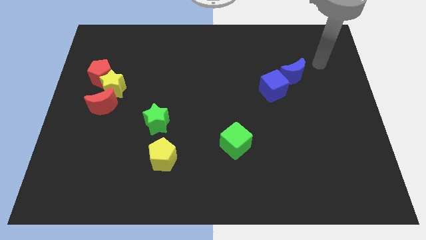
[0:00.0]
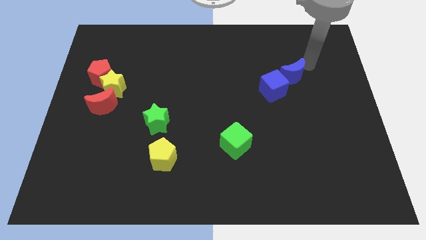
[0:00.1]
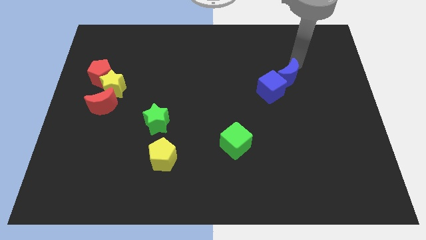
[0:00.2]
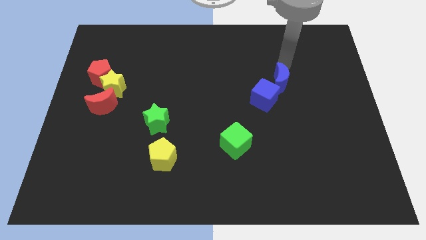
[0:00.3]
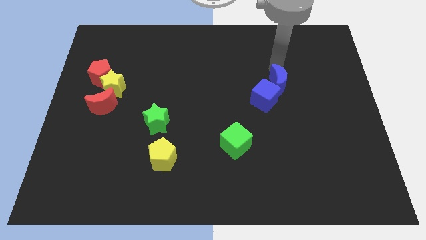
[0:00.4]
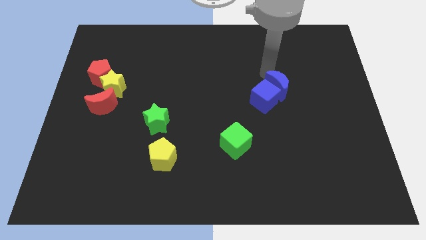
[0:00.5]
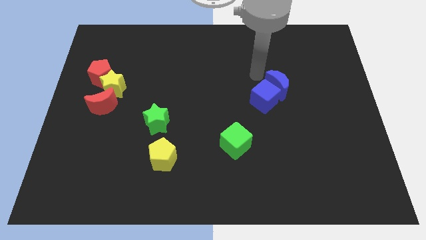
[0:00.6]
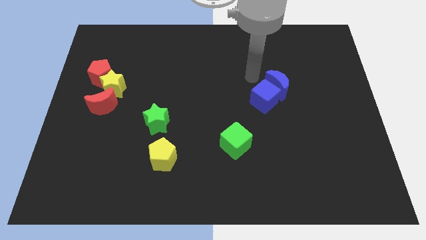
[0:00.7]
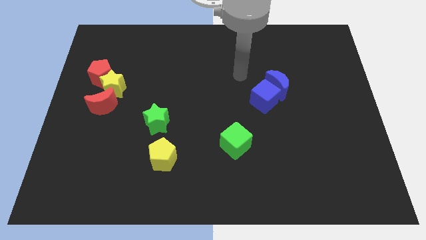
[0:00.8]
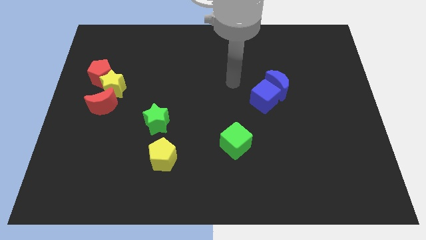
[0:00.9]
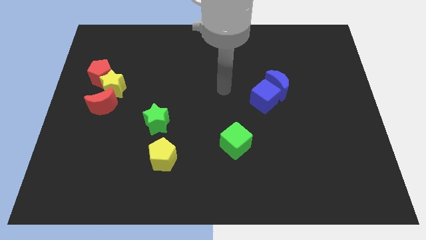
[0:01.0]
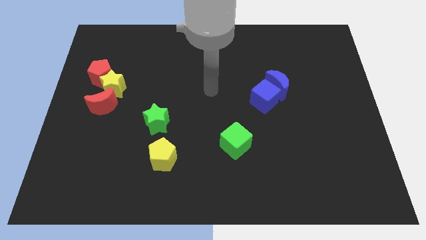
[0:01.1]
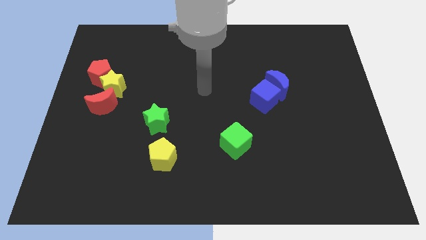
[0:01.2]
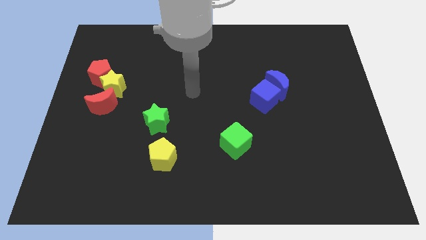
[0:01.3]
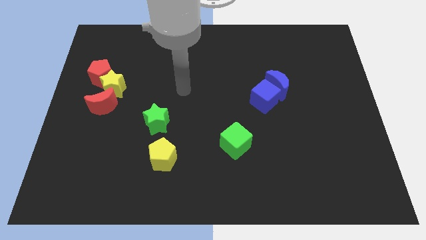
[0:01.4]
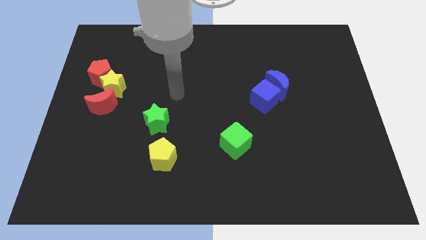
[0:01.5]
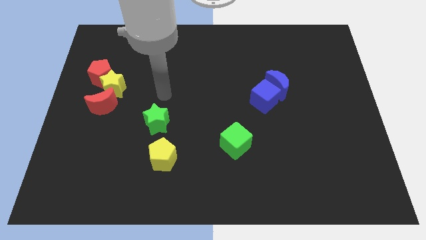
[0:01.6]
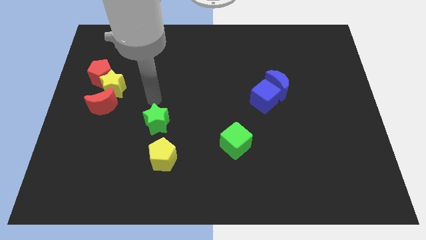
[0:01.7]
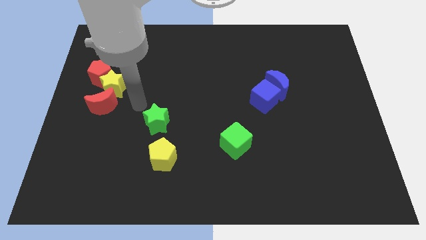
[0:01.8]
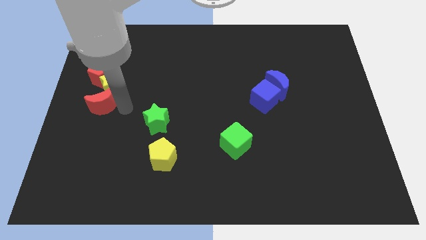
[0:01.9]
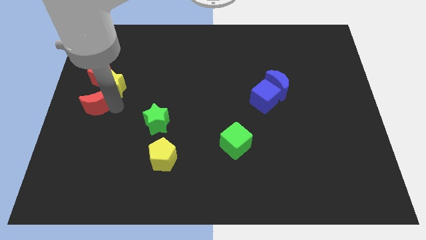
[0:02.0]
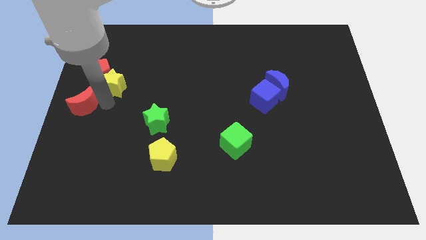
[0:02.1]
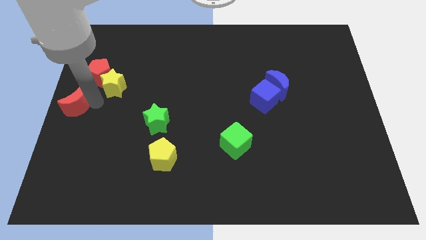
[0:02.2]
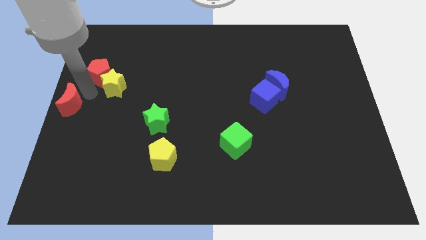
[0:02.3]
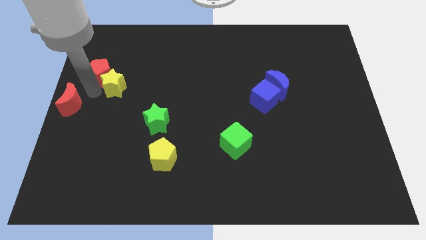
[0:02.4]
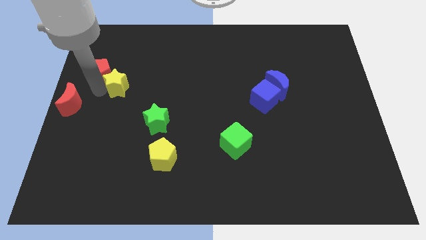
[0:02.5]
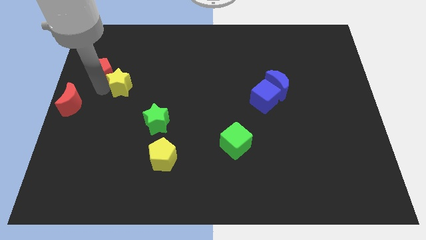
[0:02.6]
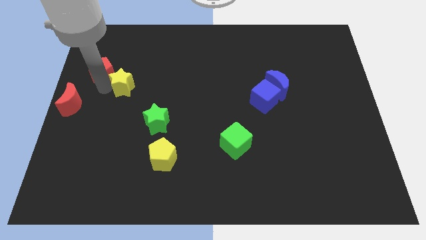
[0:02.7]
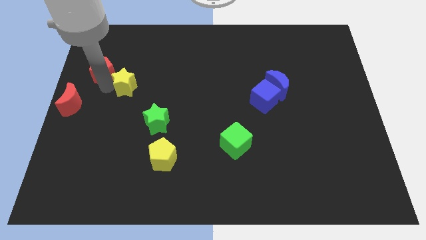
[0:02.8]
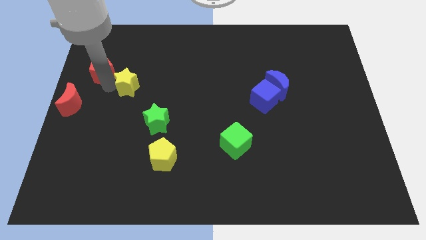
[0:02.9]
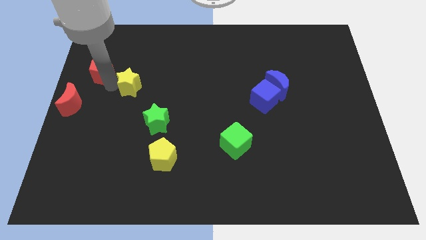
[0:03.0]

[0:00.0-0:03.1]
separate the yellow star from the red pentagon and red moon

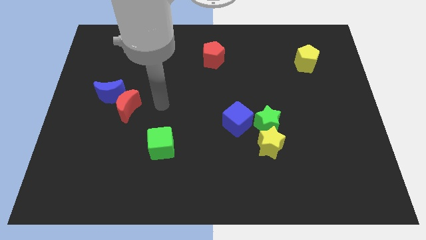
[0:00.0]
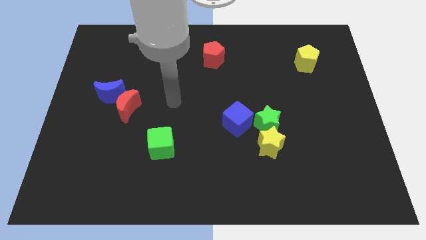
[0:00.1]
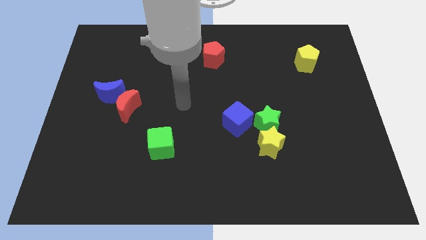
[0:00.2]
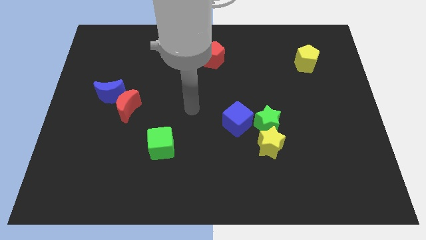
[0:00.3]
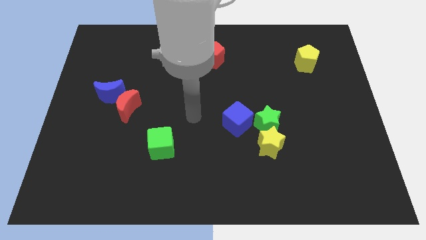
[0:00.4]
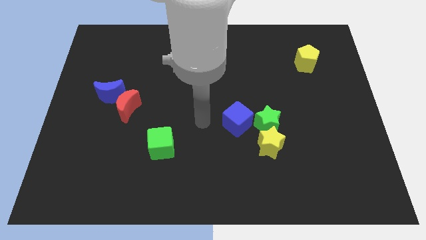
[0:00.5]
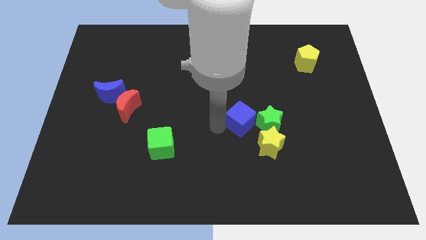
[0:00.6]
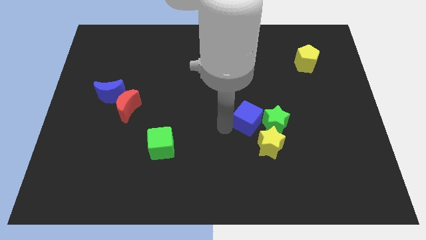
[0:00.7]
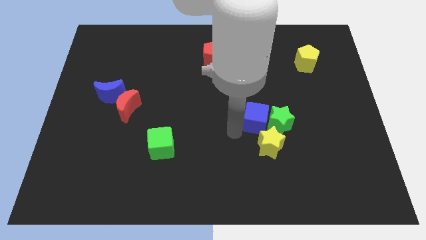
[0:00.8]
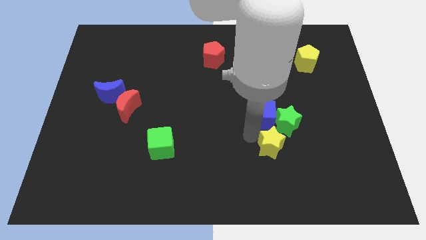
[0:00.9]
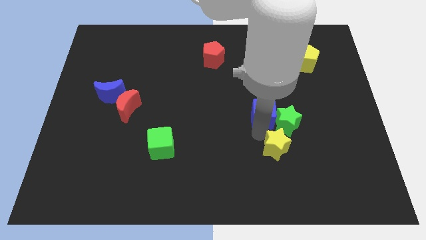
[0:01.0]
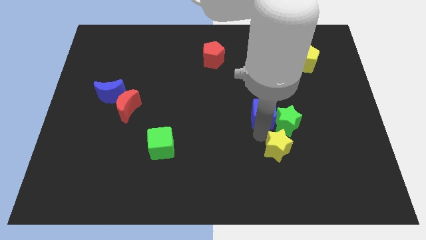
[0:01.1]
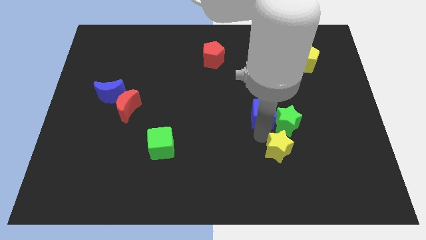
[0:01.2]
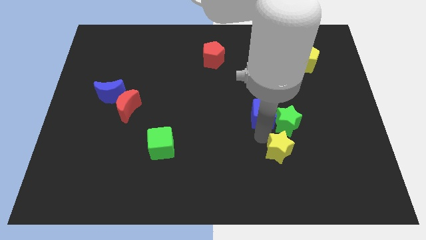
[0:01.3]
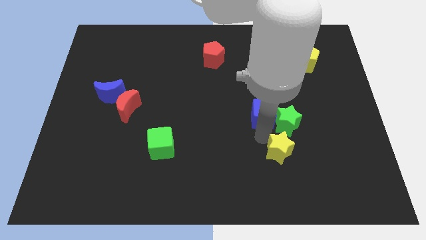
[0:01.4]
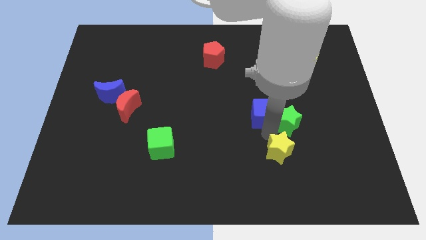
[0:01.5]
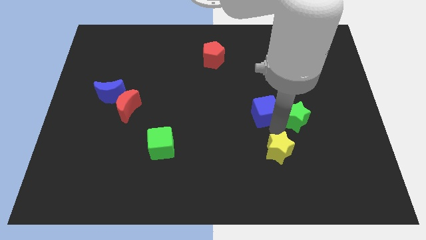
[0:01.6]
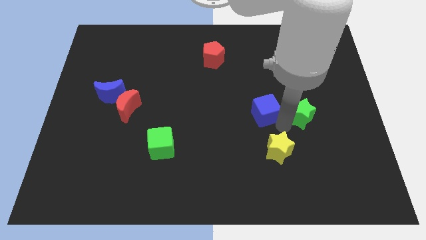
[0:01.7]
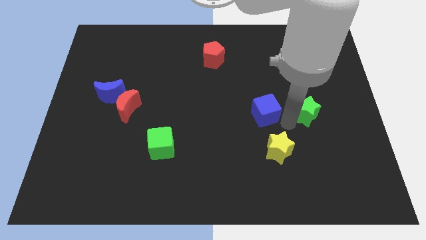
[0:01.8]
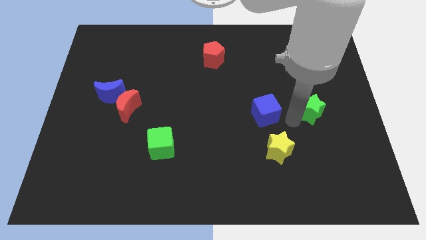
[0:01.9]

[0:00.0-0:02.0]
move the green star away from the yellow star and blue cube

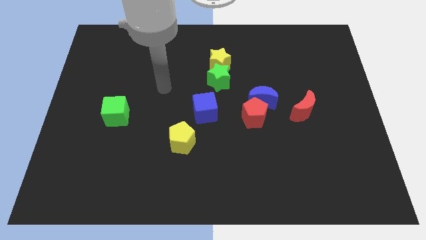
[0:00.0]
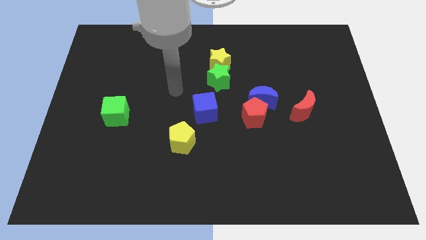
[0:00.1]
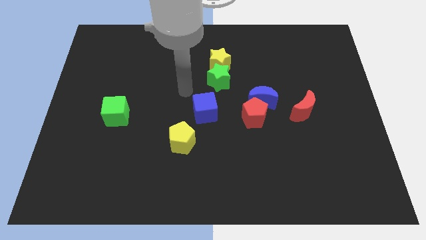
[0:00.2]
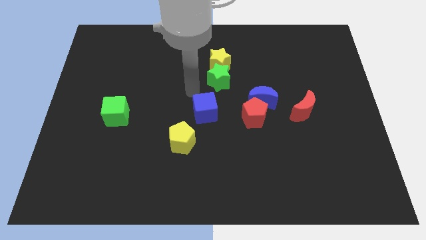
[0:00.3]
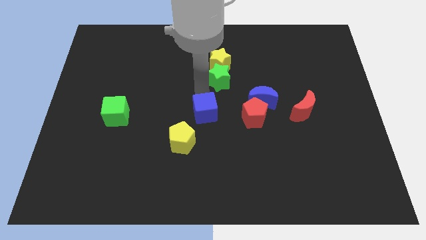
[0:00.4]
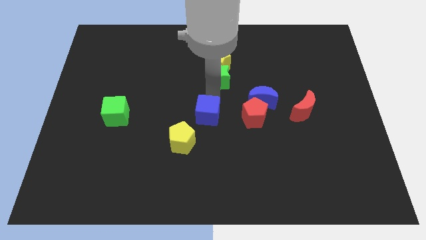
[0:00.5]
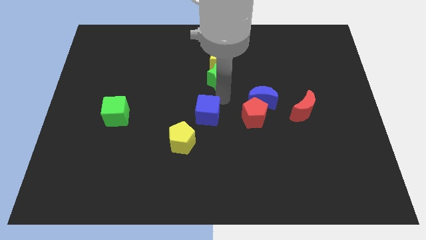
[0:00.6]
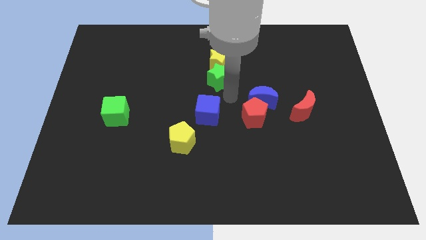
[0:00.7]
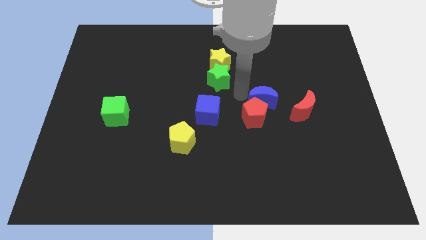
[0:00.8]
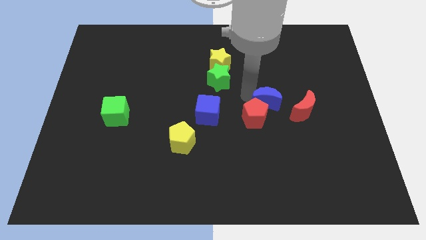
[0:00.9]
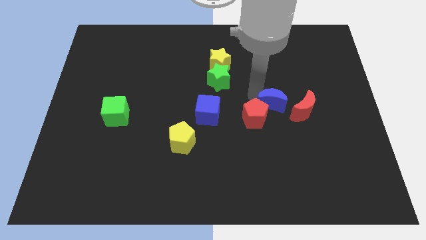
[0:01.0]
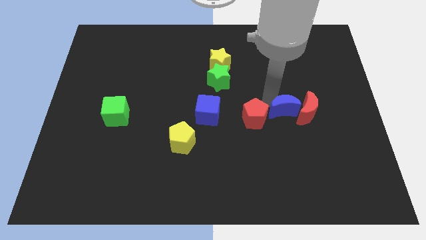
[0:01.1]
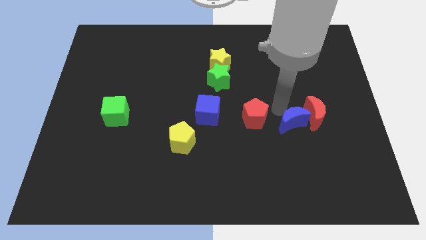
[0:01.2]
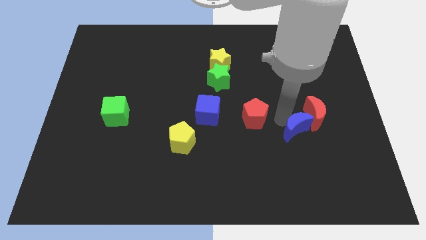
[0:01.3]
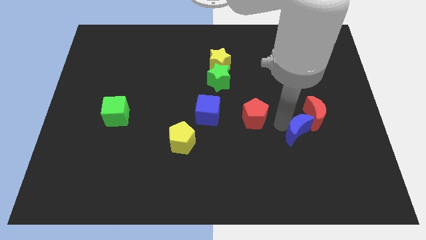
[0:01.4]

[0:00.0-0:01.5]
pull the red pentagon apart from the blue moon

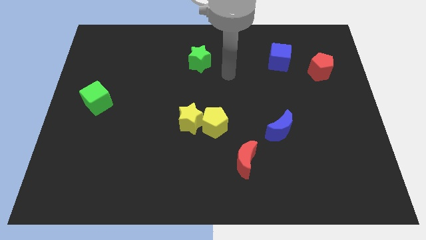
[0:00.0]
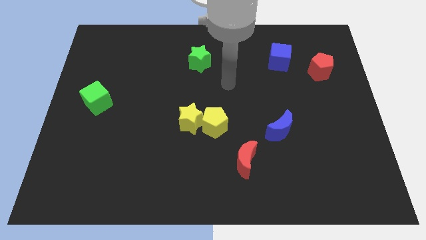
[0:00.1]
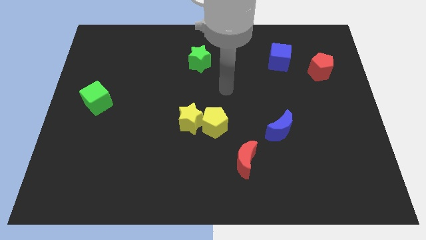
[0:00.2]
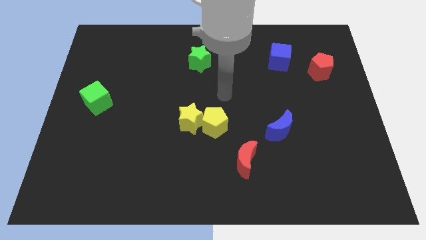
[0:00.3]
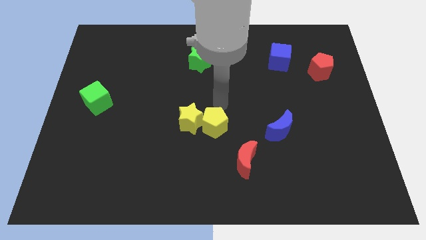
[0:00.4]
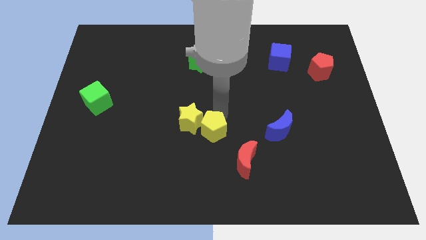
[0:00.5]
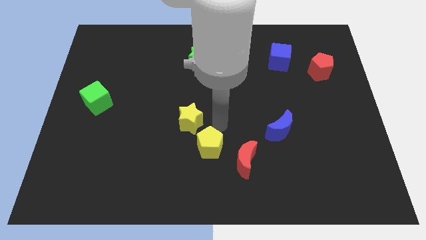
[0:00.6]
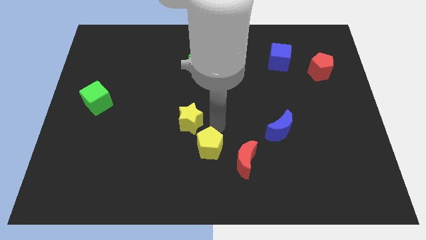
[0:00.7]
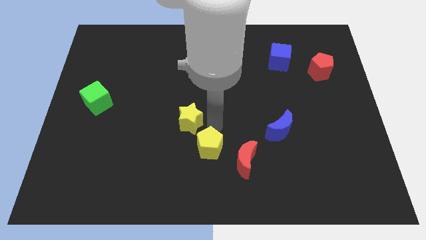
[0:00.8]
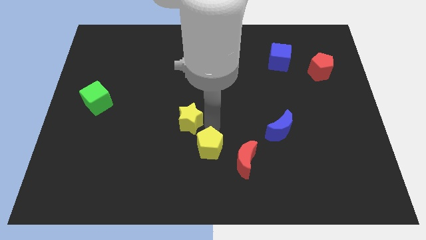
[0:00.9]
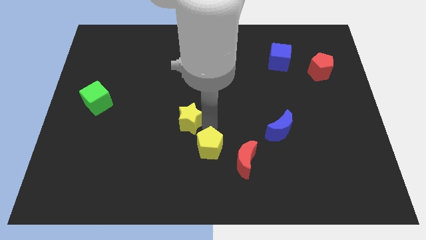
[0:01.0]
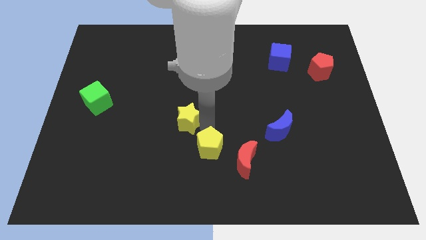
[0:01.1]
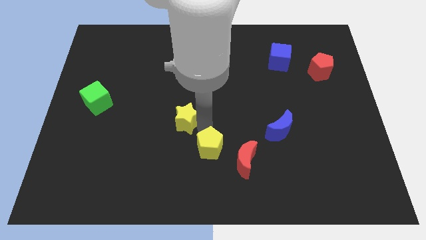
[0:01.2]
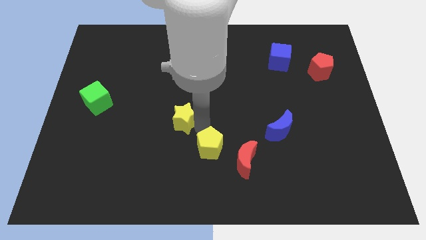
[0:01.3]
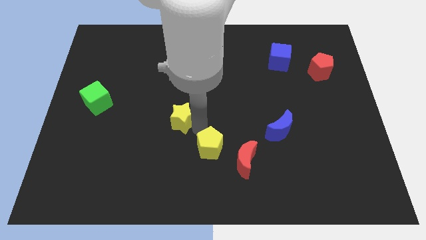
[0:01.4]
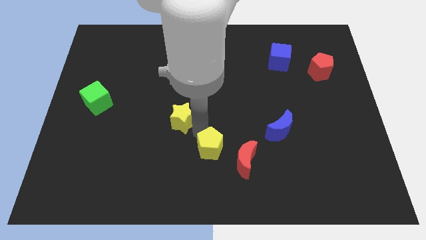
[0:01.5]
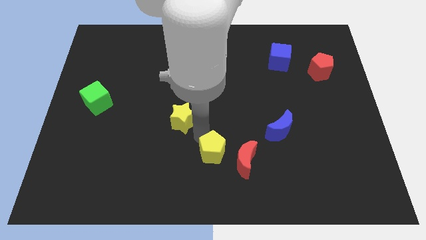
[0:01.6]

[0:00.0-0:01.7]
pull the yellow star apart from the yellow pentagon

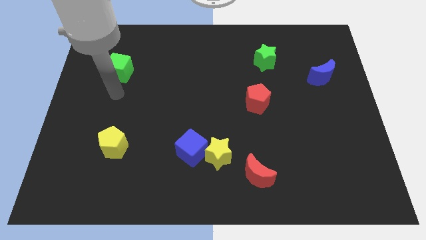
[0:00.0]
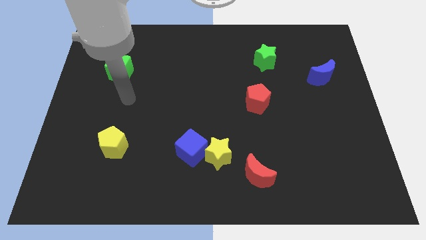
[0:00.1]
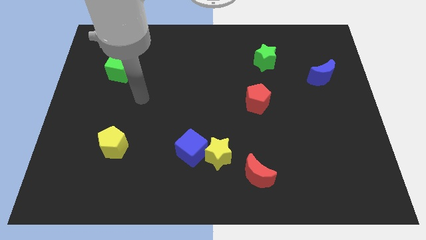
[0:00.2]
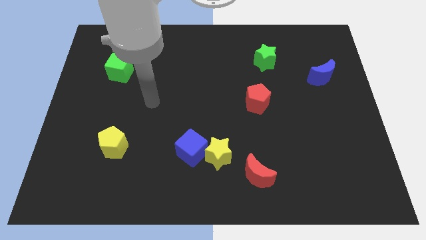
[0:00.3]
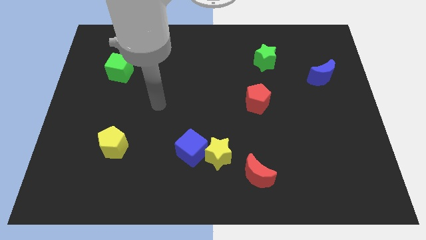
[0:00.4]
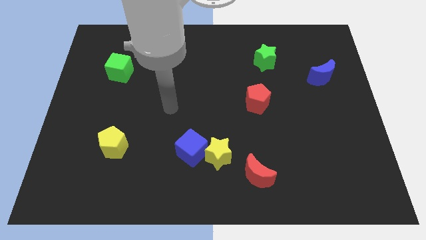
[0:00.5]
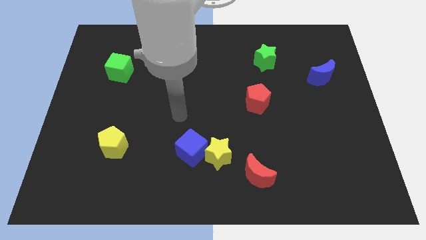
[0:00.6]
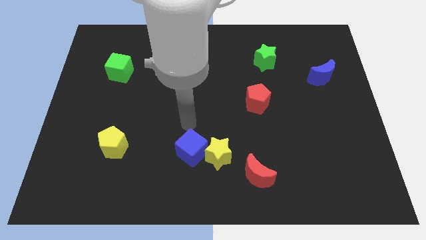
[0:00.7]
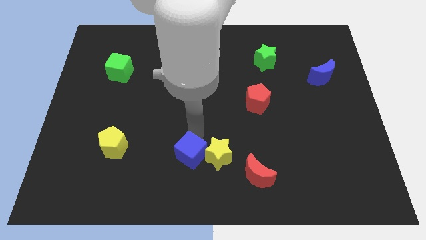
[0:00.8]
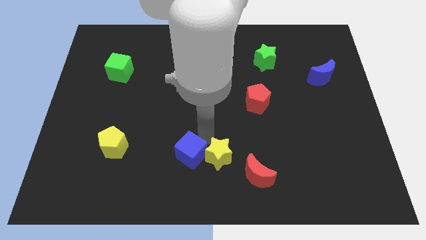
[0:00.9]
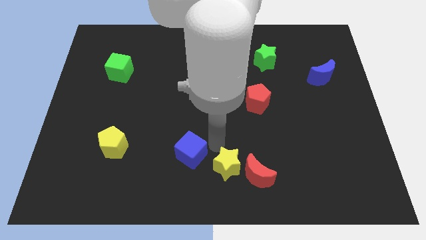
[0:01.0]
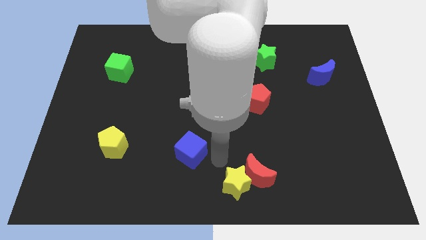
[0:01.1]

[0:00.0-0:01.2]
move the blue cube away from the yellow star
